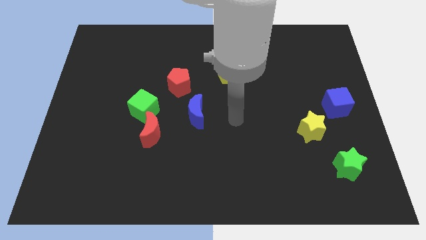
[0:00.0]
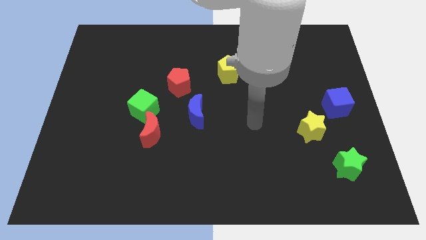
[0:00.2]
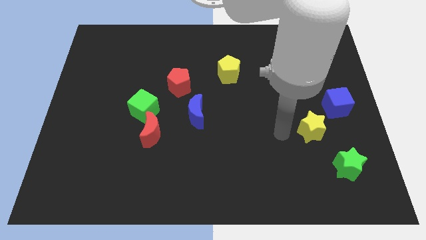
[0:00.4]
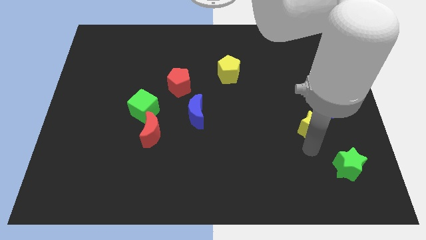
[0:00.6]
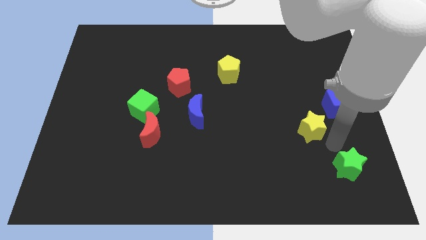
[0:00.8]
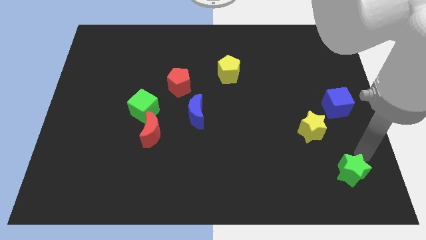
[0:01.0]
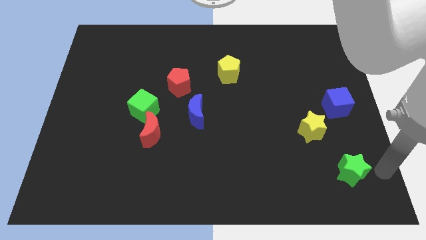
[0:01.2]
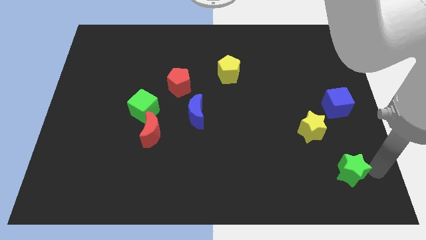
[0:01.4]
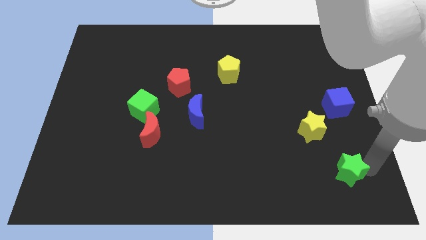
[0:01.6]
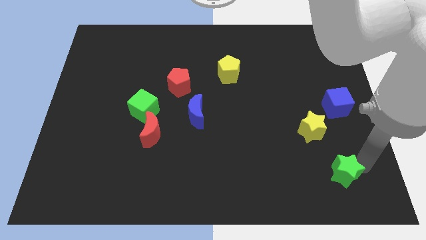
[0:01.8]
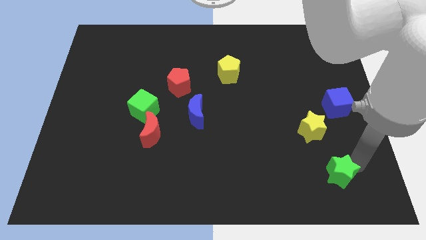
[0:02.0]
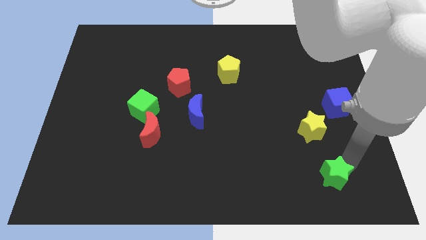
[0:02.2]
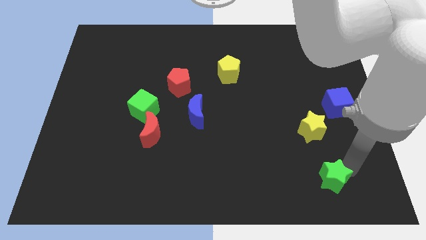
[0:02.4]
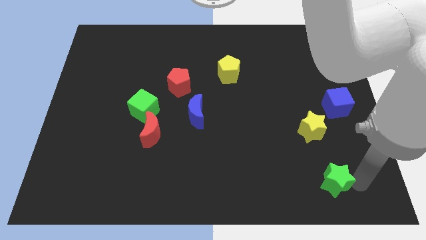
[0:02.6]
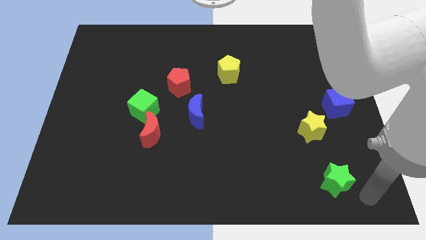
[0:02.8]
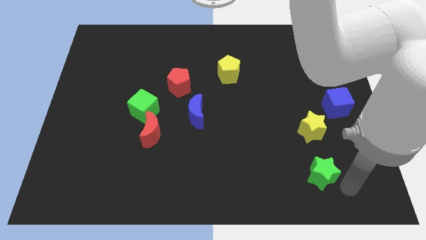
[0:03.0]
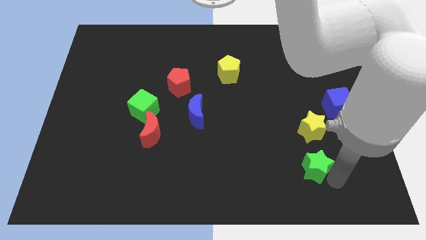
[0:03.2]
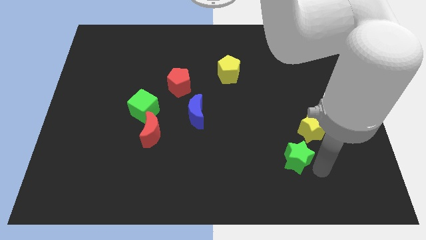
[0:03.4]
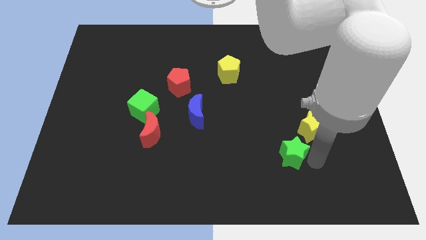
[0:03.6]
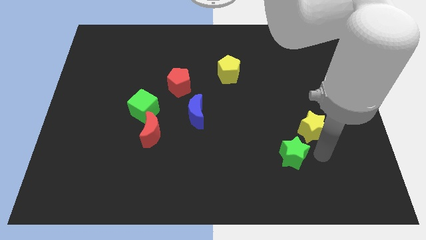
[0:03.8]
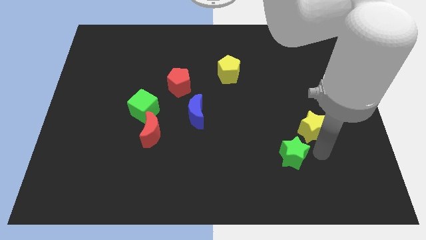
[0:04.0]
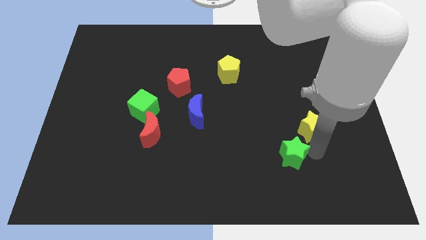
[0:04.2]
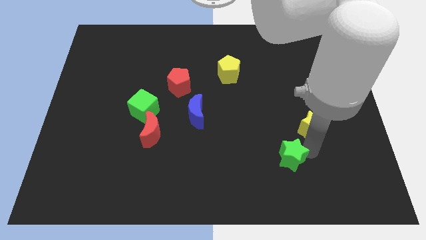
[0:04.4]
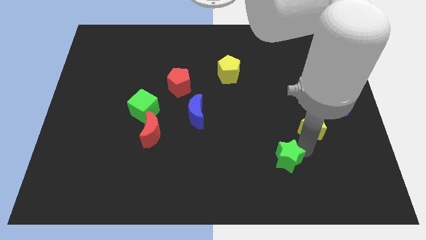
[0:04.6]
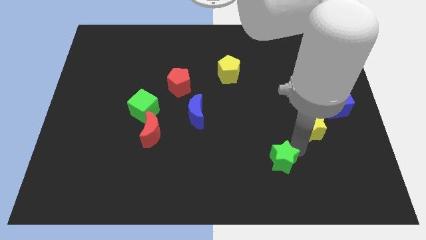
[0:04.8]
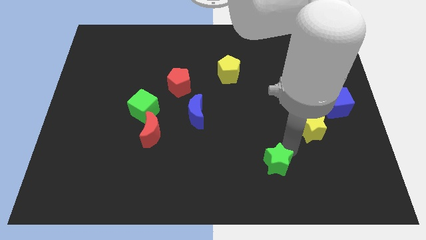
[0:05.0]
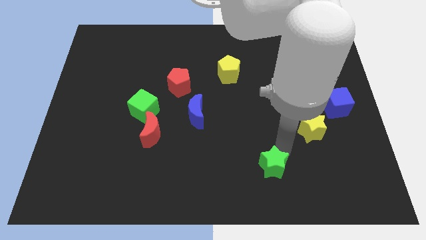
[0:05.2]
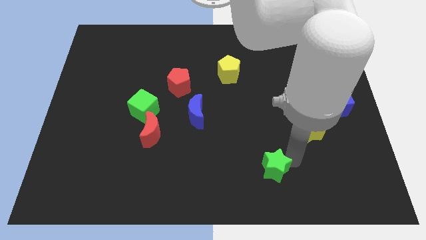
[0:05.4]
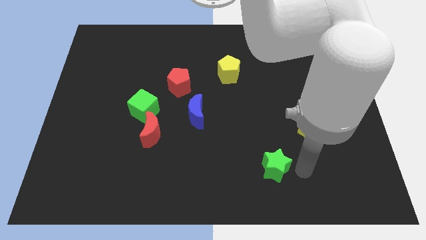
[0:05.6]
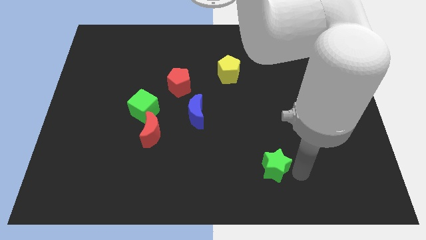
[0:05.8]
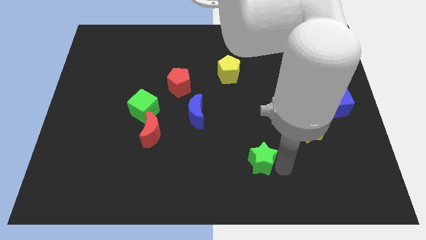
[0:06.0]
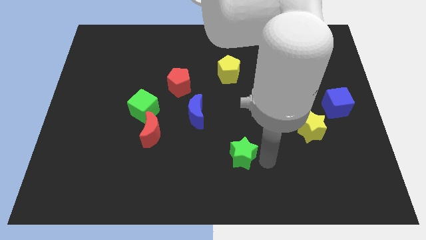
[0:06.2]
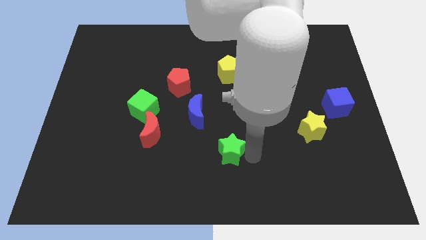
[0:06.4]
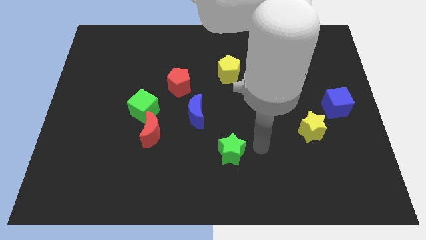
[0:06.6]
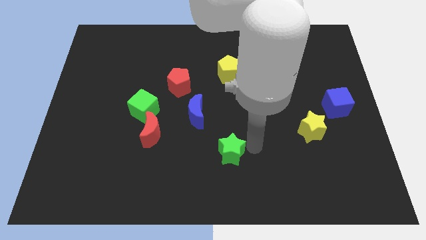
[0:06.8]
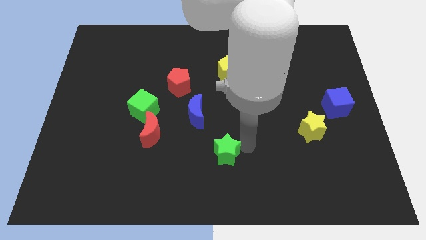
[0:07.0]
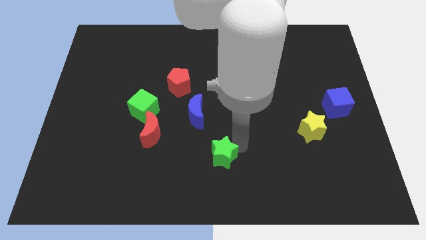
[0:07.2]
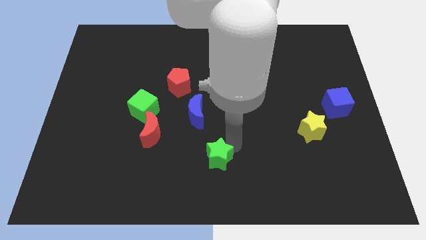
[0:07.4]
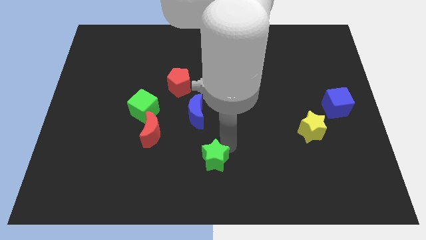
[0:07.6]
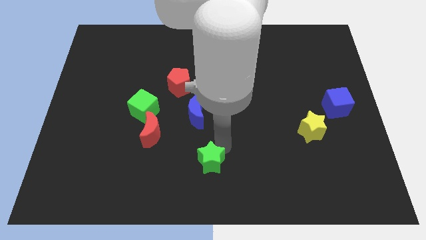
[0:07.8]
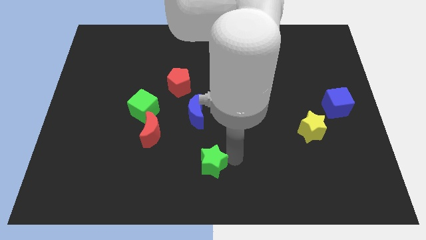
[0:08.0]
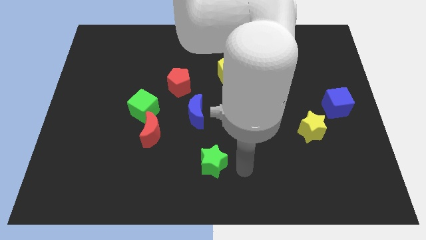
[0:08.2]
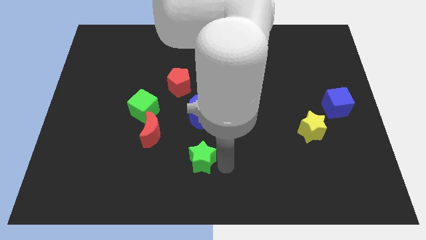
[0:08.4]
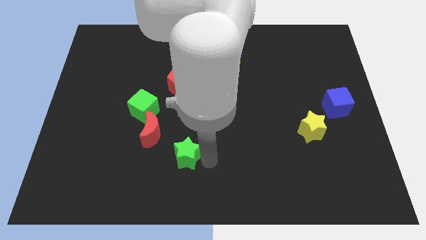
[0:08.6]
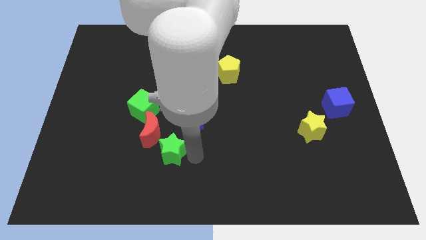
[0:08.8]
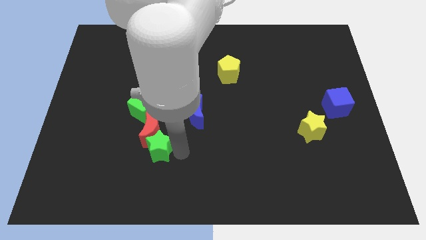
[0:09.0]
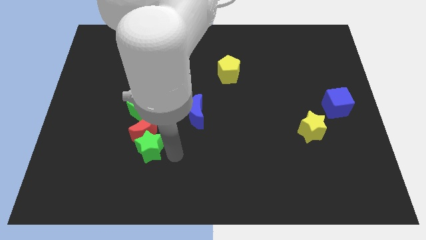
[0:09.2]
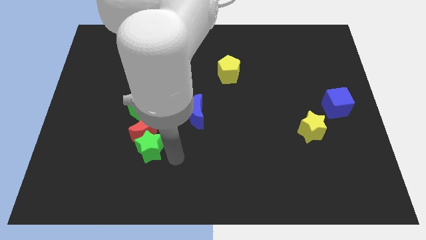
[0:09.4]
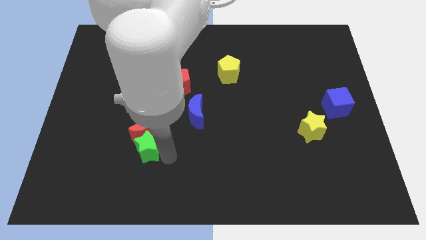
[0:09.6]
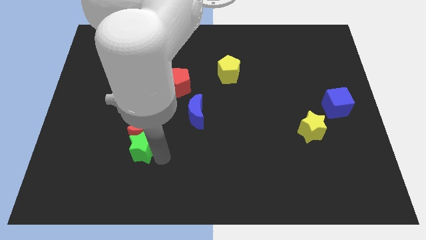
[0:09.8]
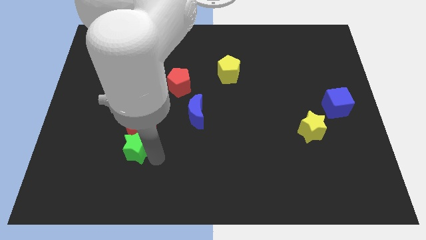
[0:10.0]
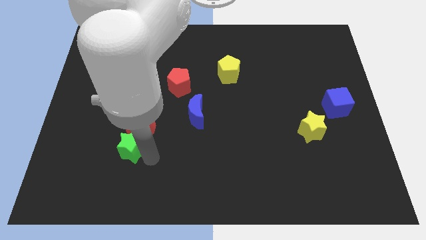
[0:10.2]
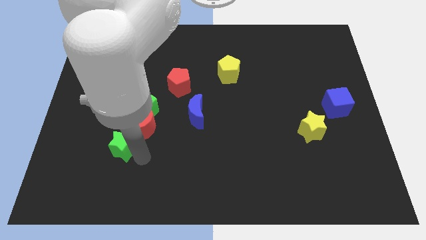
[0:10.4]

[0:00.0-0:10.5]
move the green star to the left of the red moon

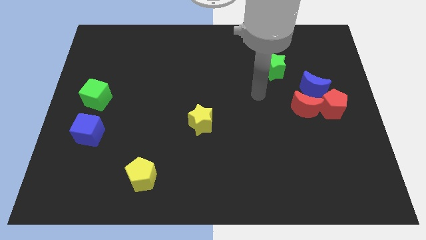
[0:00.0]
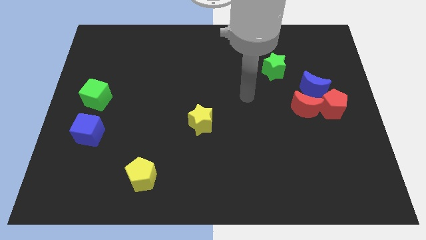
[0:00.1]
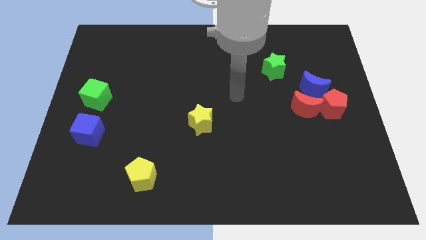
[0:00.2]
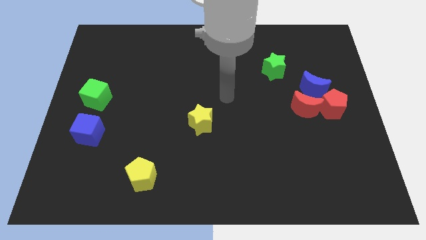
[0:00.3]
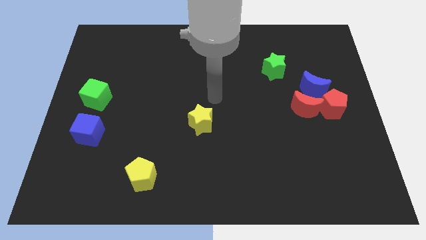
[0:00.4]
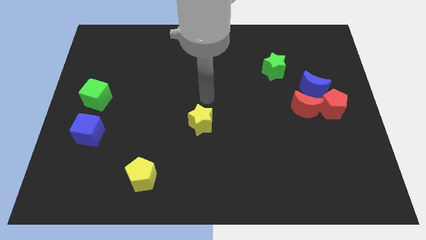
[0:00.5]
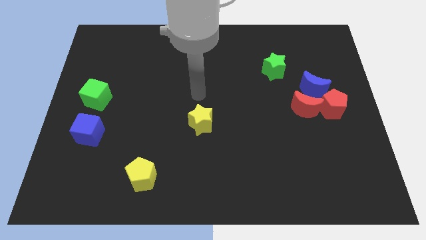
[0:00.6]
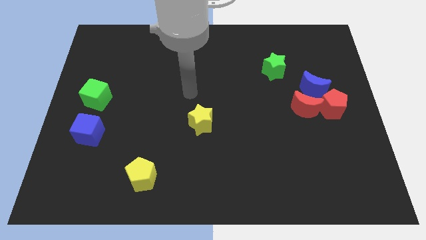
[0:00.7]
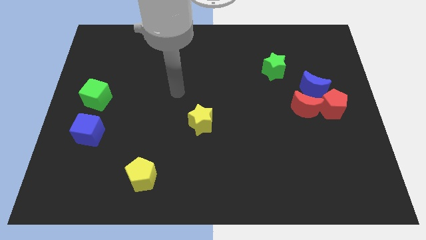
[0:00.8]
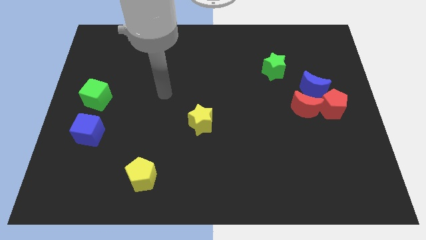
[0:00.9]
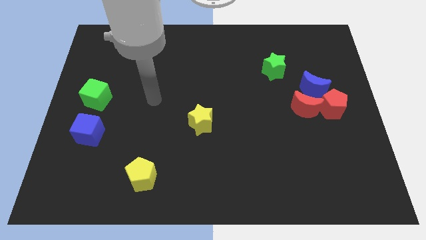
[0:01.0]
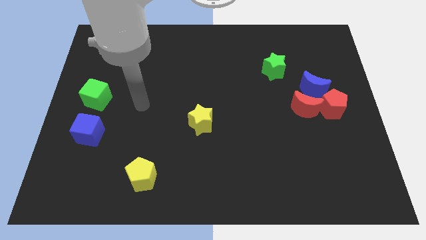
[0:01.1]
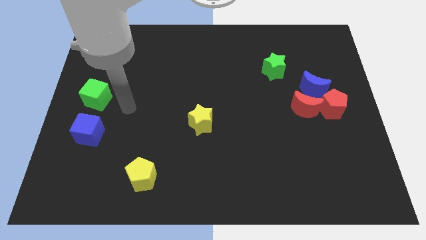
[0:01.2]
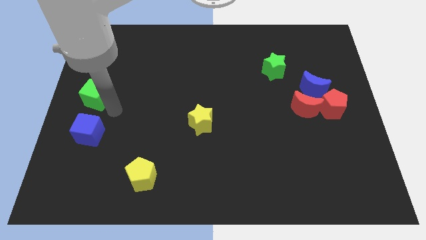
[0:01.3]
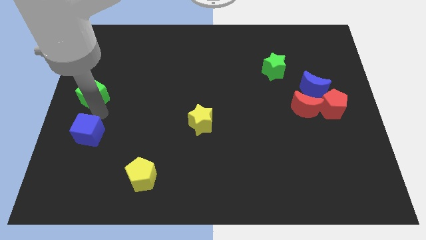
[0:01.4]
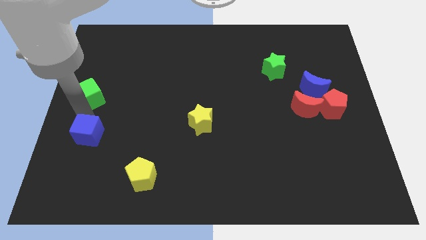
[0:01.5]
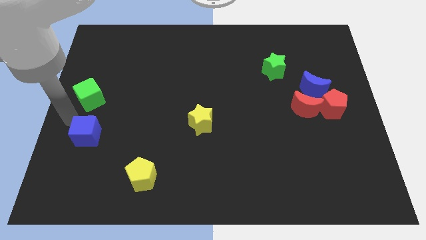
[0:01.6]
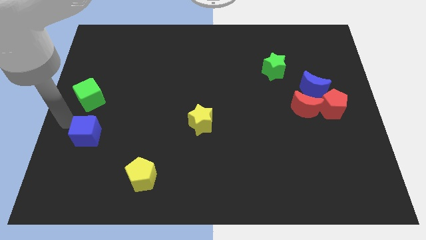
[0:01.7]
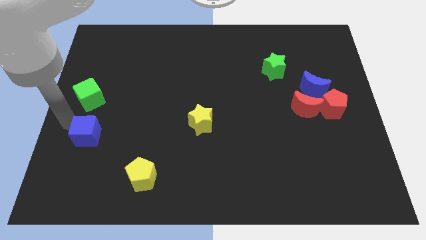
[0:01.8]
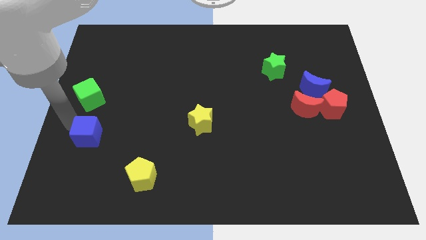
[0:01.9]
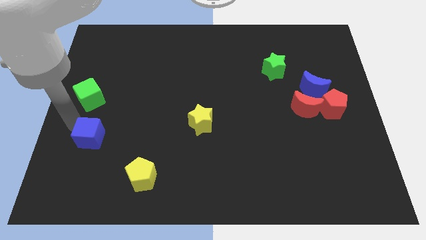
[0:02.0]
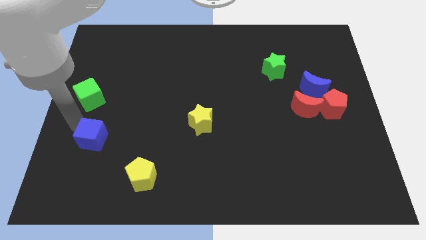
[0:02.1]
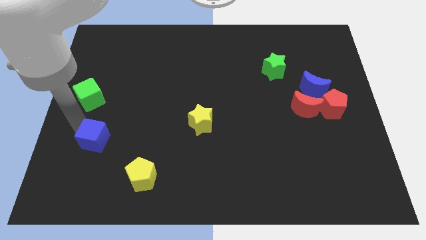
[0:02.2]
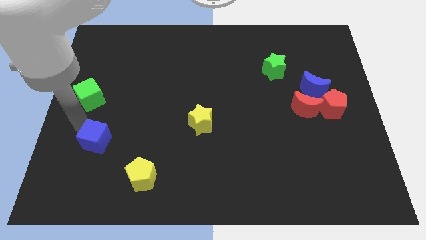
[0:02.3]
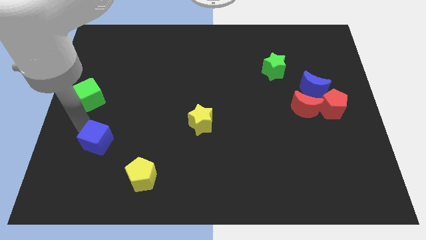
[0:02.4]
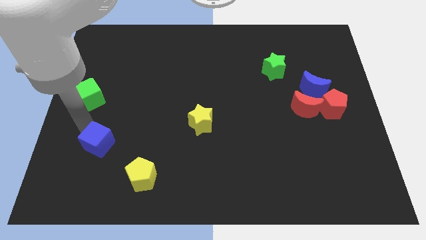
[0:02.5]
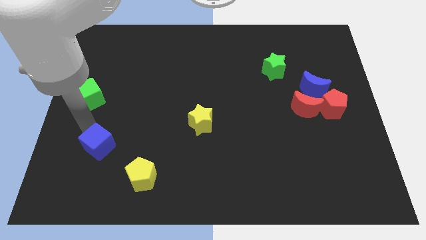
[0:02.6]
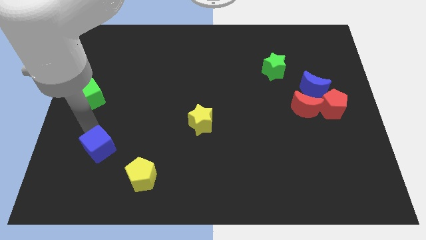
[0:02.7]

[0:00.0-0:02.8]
move the blue cube diagonally up and to the left of the yellow pentagon
